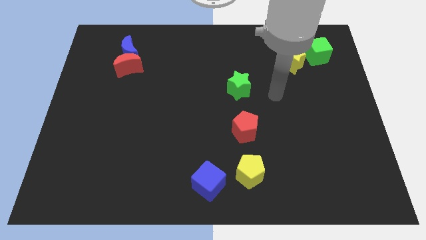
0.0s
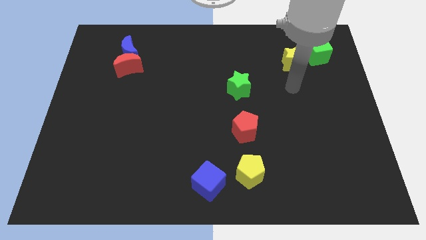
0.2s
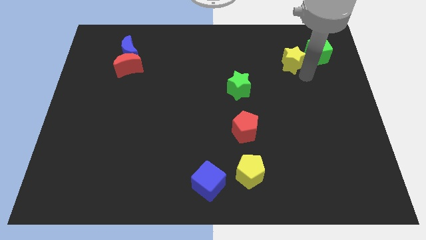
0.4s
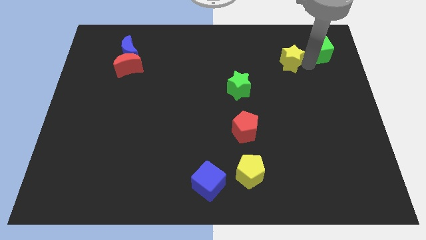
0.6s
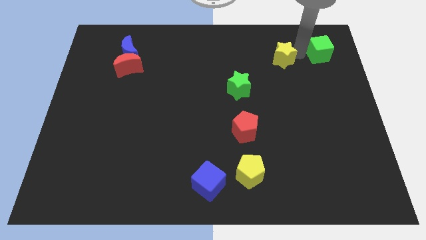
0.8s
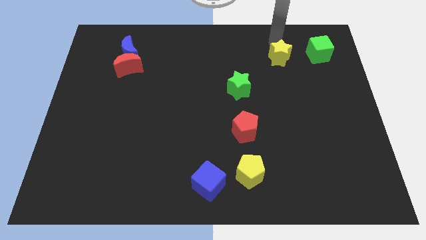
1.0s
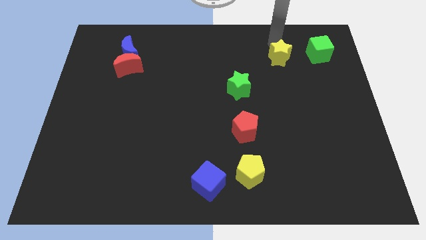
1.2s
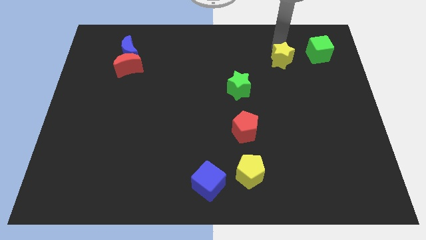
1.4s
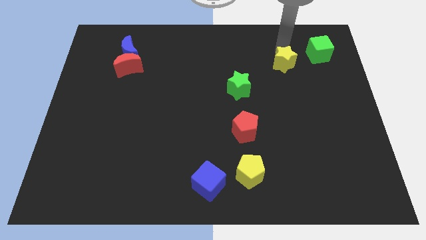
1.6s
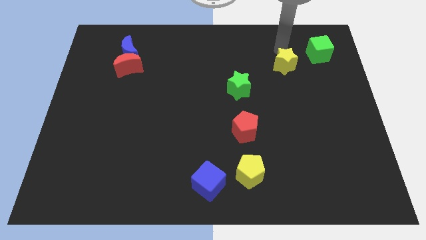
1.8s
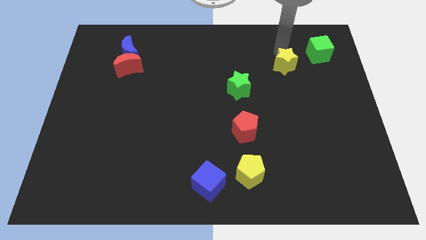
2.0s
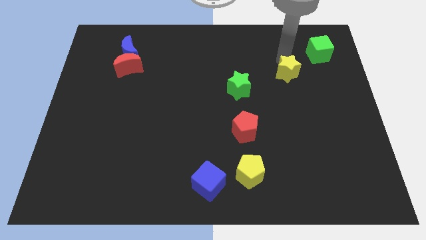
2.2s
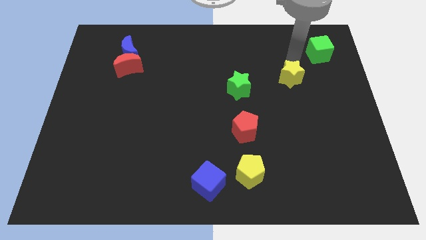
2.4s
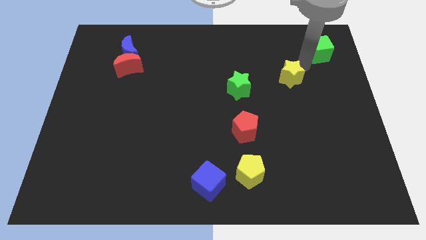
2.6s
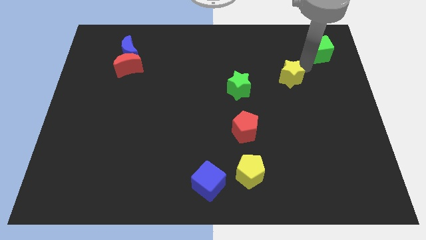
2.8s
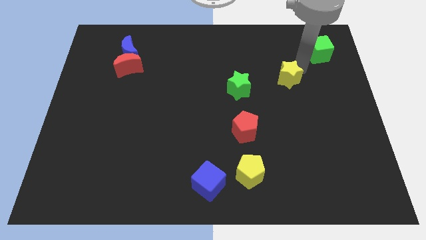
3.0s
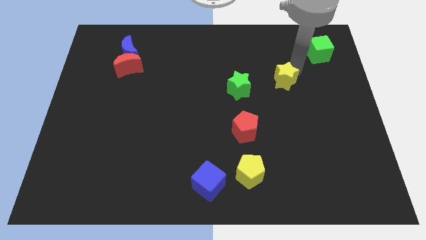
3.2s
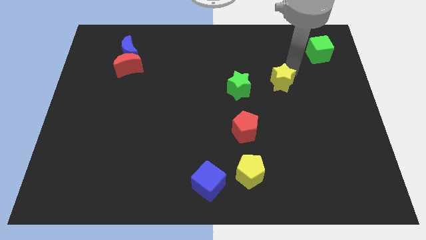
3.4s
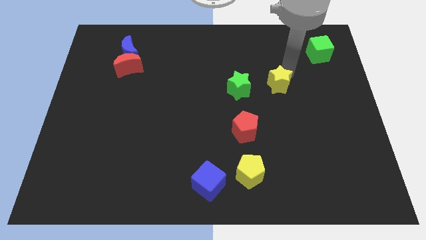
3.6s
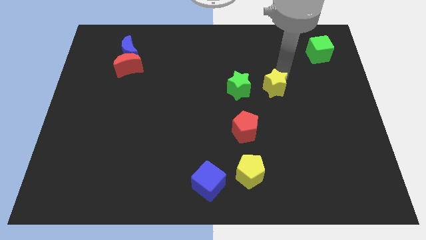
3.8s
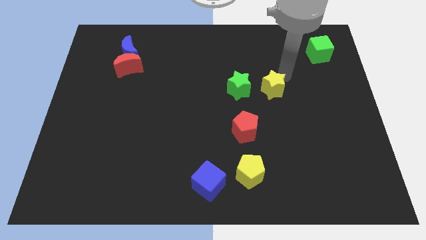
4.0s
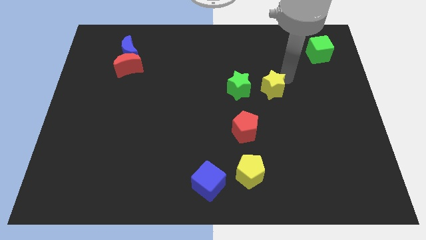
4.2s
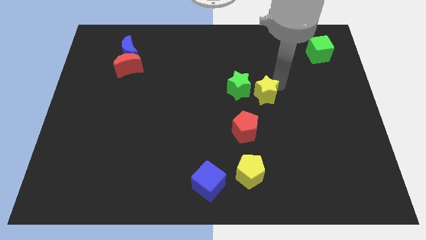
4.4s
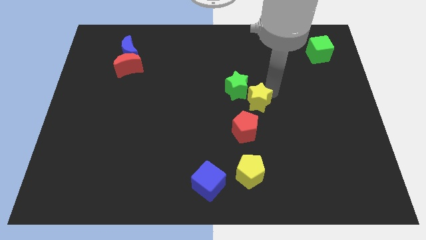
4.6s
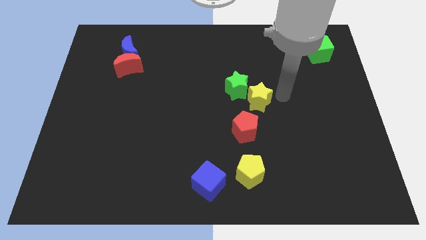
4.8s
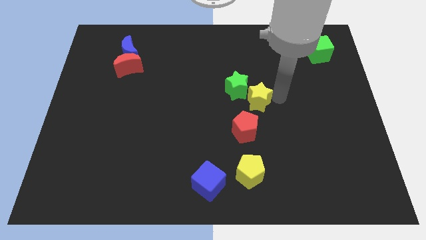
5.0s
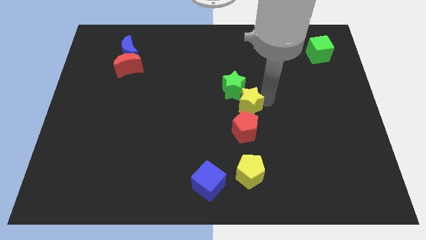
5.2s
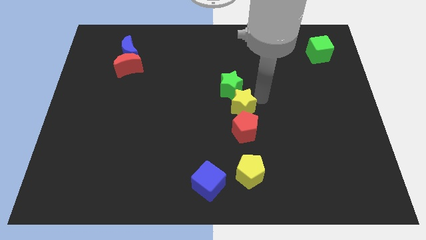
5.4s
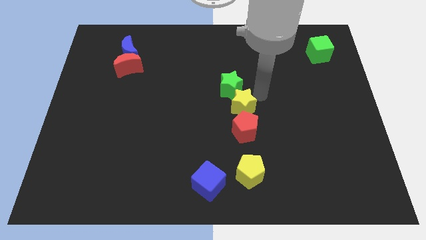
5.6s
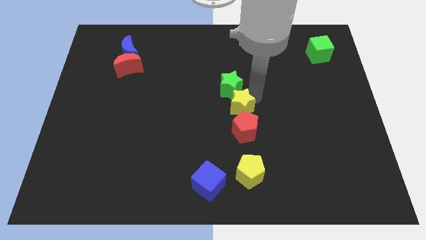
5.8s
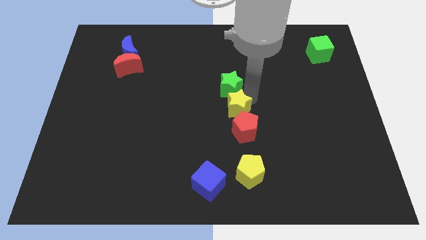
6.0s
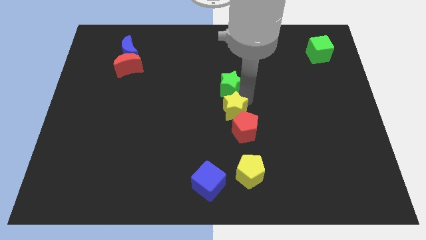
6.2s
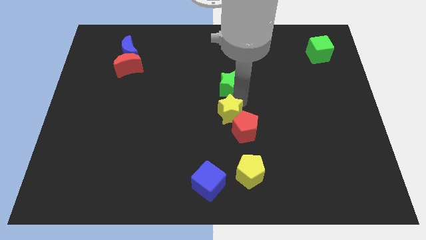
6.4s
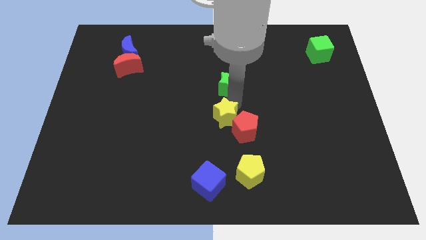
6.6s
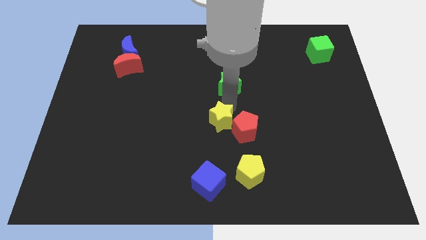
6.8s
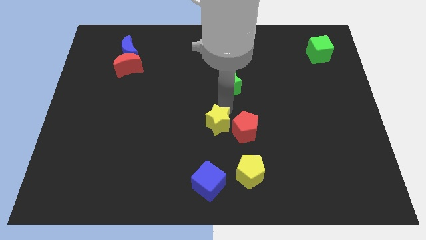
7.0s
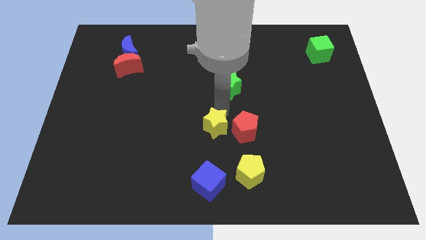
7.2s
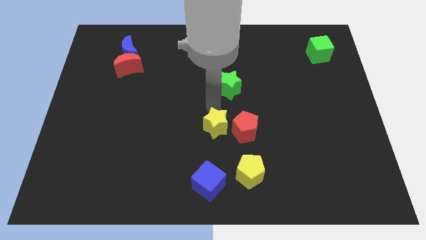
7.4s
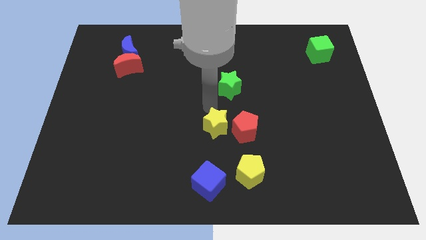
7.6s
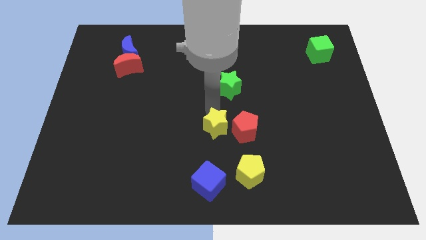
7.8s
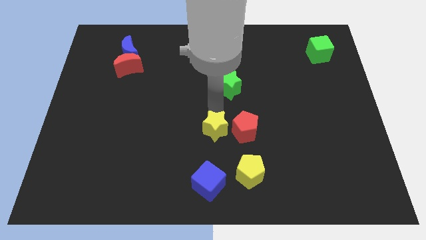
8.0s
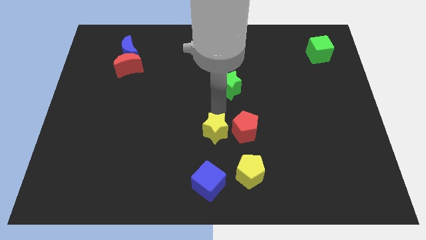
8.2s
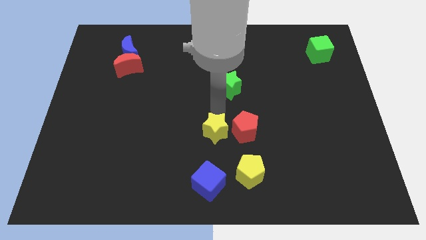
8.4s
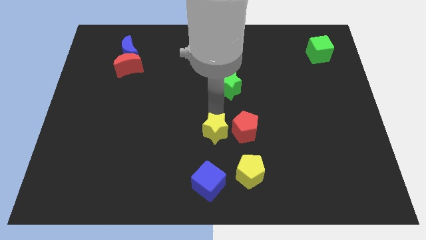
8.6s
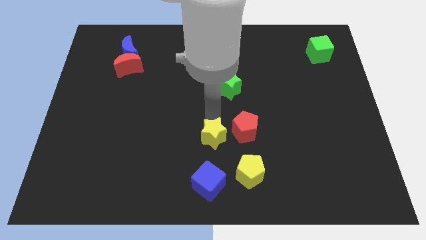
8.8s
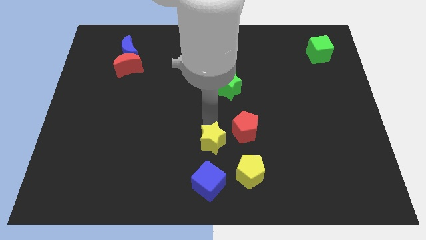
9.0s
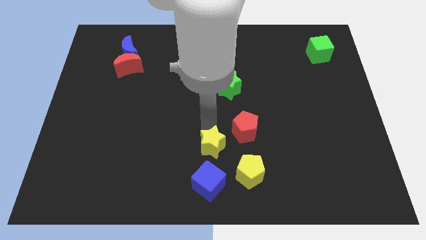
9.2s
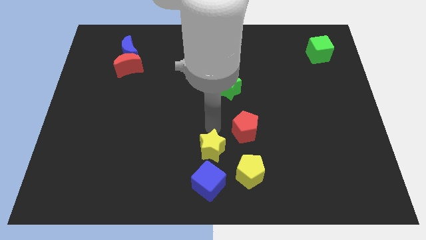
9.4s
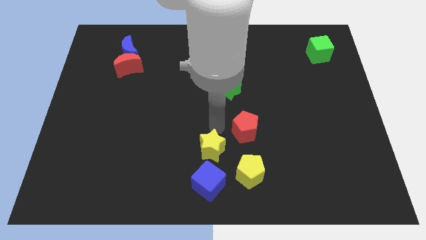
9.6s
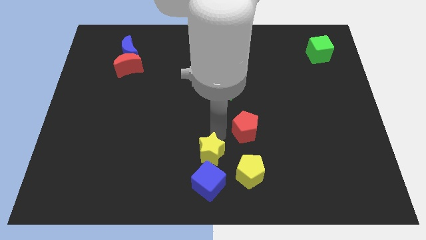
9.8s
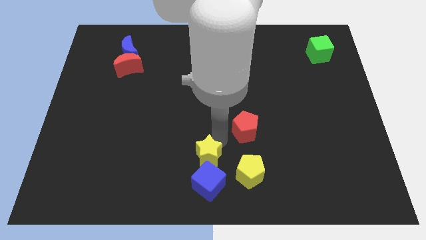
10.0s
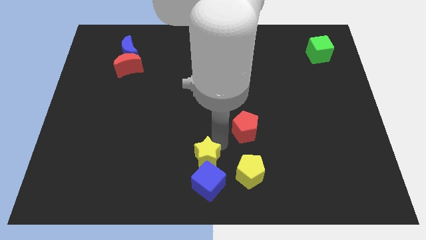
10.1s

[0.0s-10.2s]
move the yellow star to the blue cube

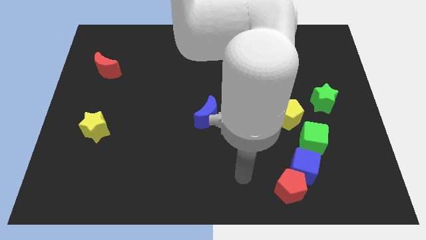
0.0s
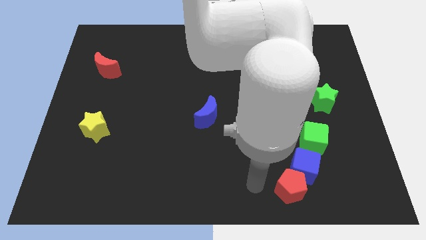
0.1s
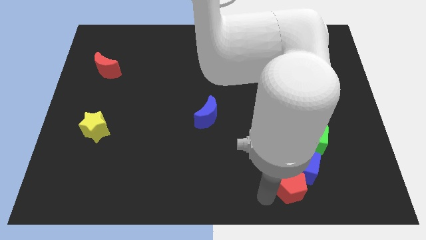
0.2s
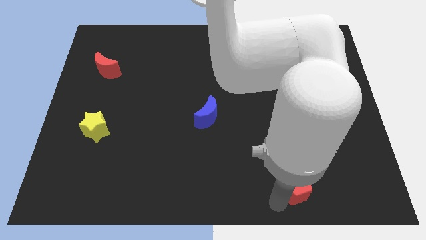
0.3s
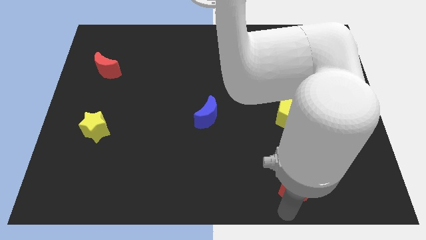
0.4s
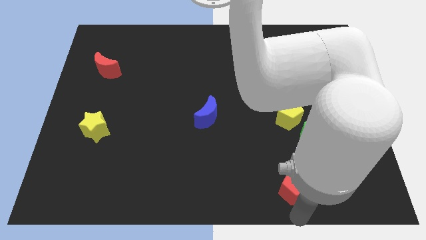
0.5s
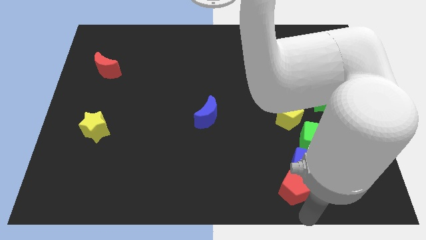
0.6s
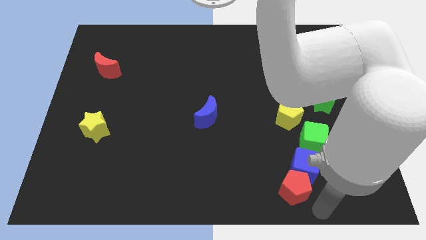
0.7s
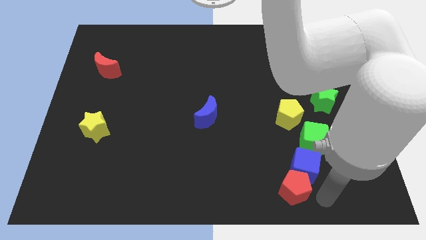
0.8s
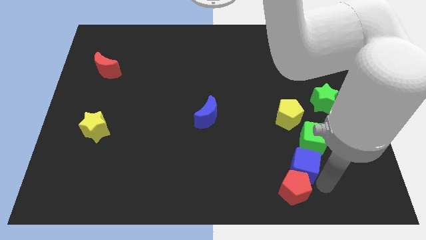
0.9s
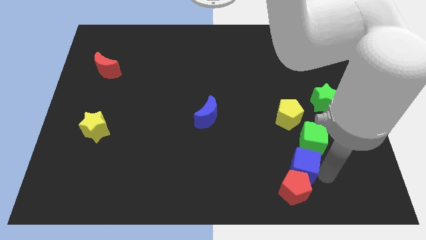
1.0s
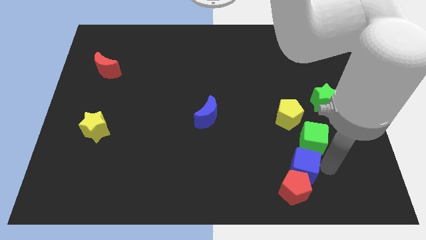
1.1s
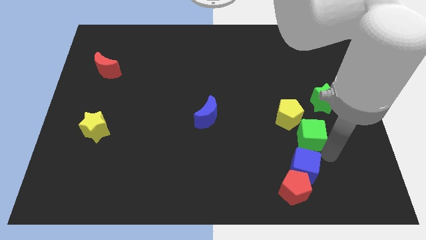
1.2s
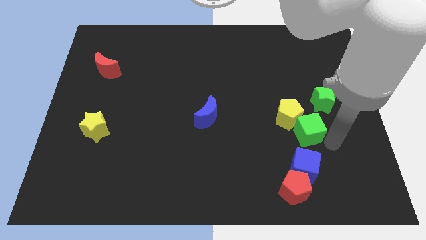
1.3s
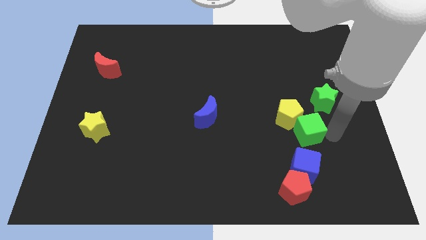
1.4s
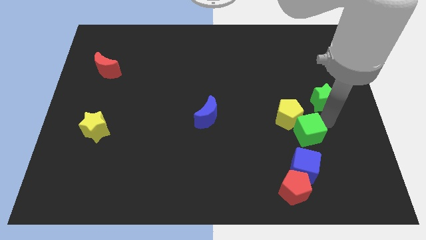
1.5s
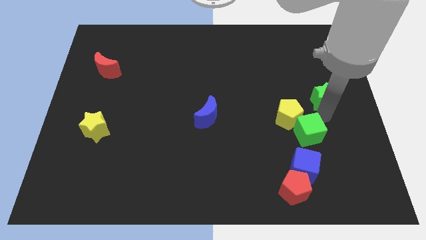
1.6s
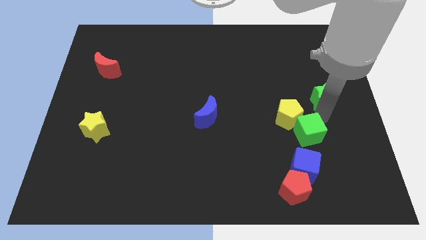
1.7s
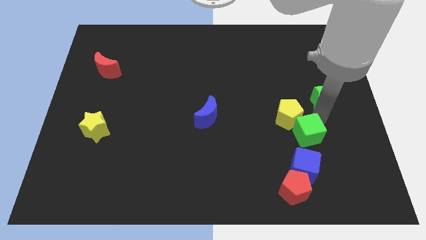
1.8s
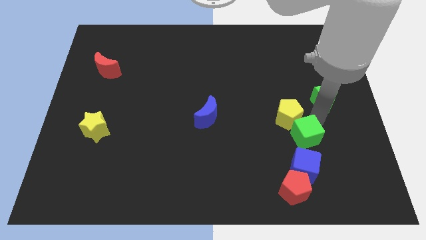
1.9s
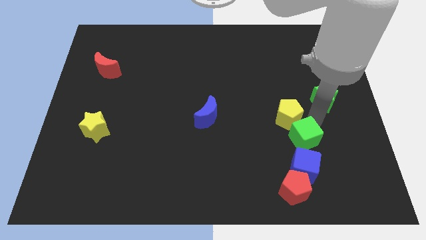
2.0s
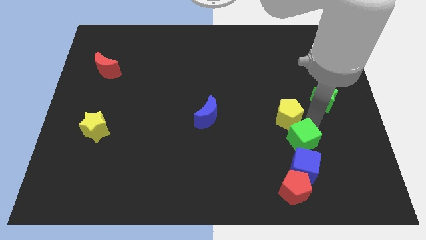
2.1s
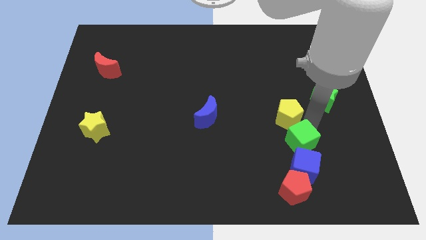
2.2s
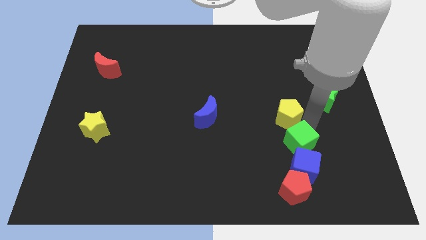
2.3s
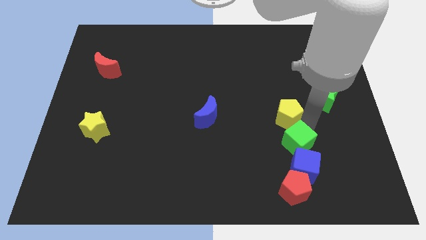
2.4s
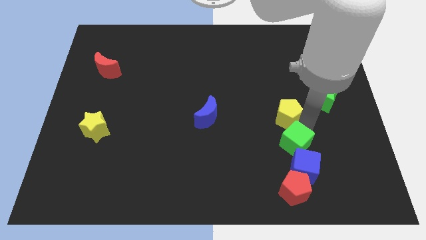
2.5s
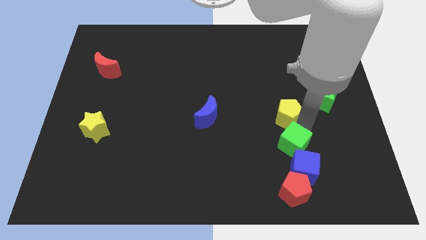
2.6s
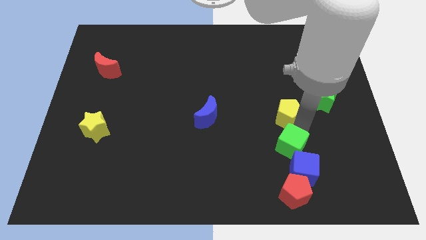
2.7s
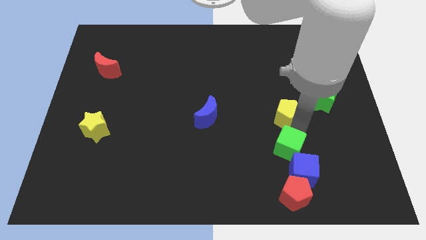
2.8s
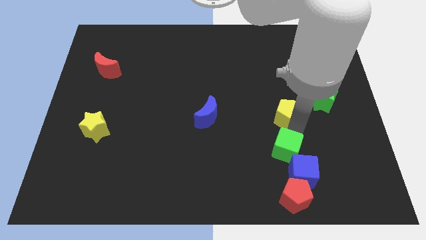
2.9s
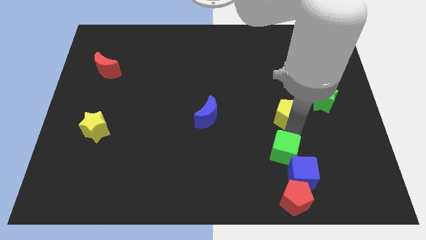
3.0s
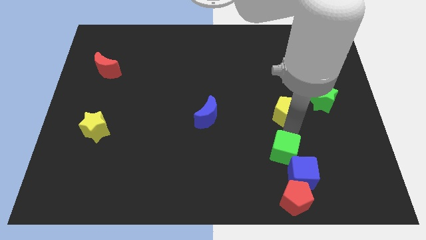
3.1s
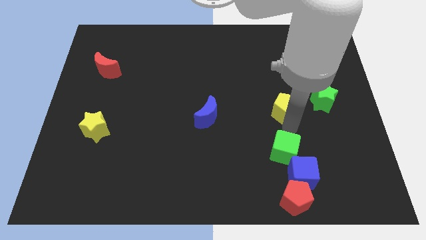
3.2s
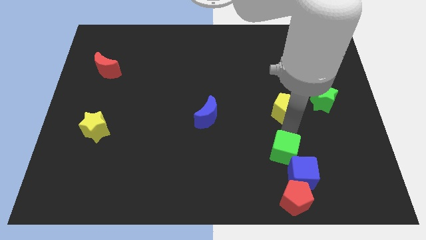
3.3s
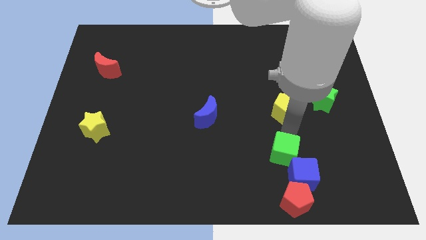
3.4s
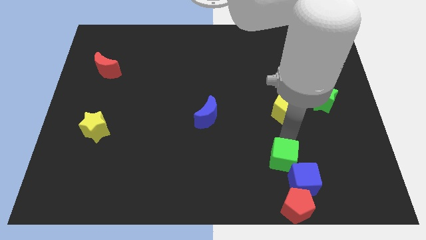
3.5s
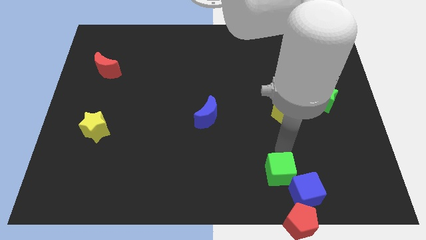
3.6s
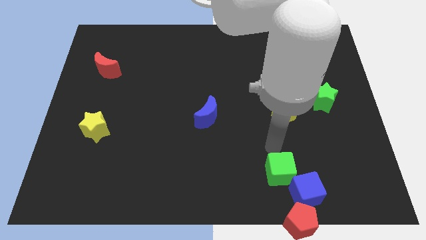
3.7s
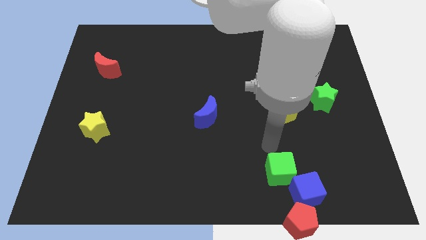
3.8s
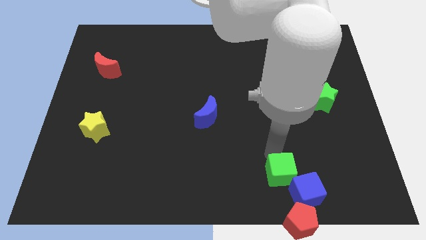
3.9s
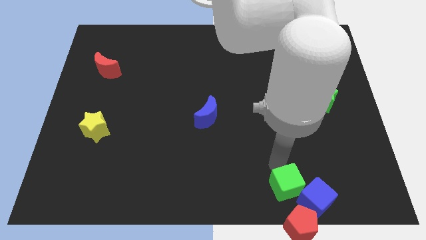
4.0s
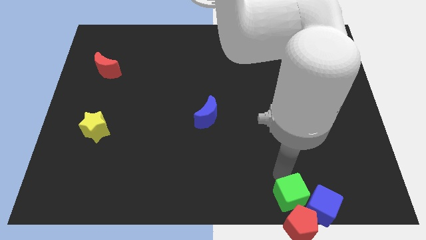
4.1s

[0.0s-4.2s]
move the green cube towards the red pentagon
